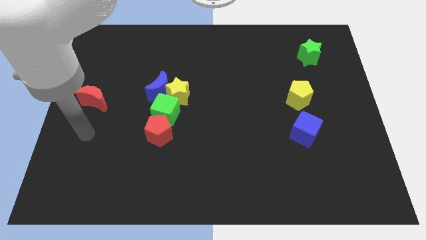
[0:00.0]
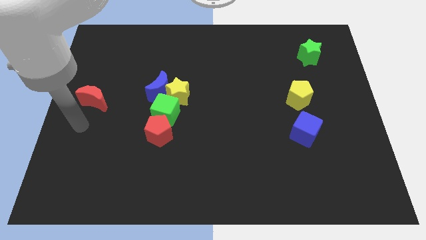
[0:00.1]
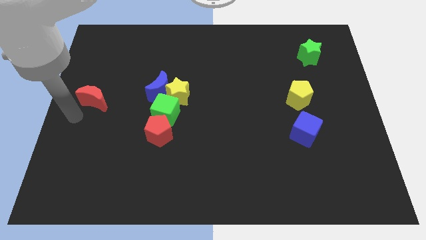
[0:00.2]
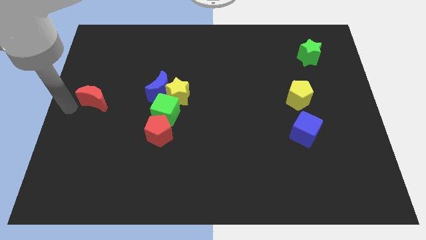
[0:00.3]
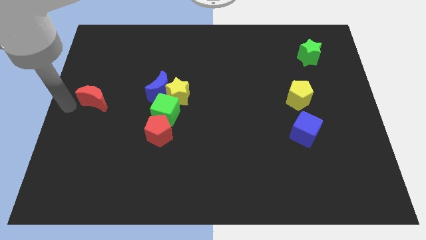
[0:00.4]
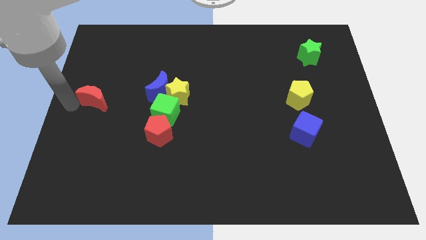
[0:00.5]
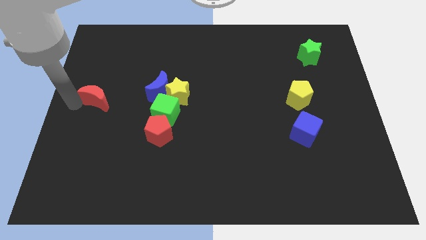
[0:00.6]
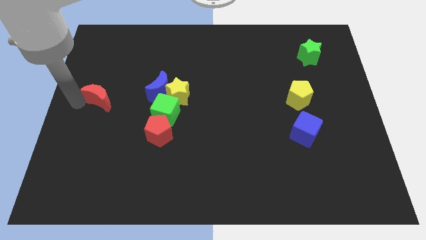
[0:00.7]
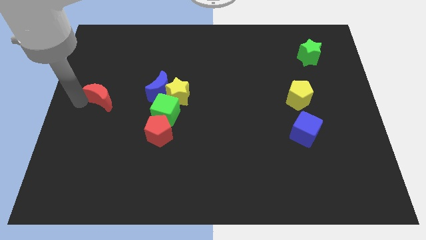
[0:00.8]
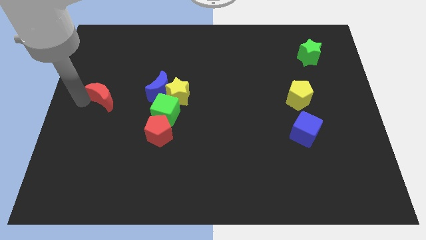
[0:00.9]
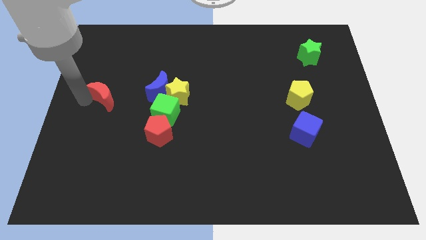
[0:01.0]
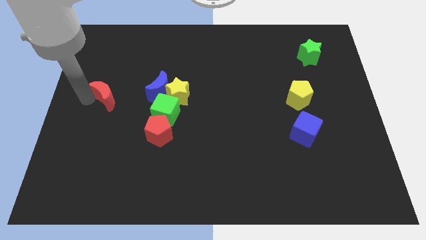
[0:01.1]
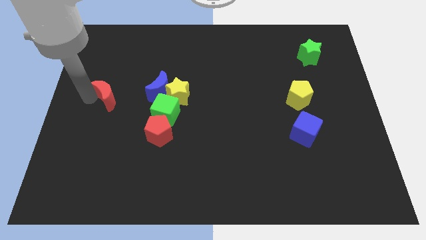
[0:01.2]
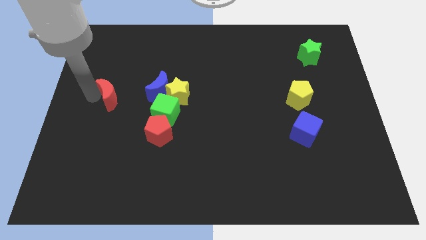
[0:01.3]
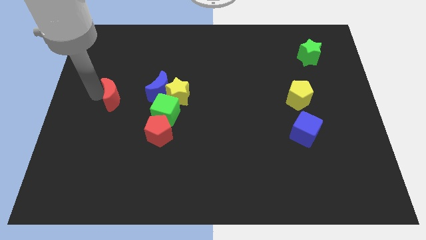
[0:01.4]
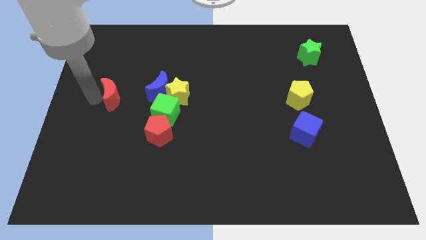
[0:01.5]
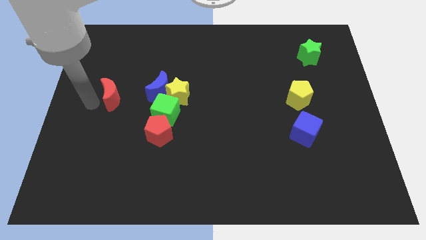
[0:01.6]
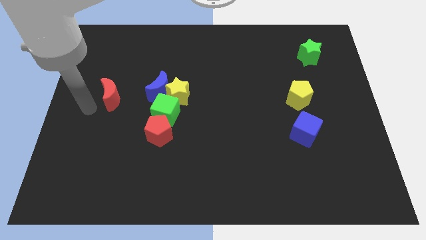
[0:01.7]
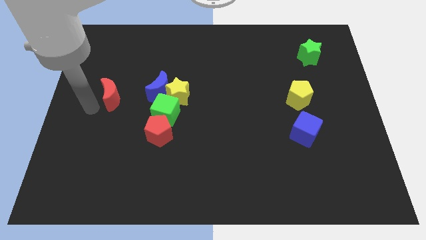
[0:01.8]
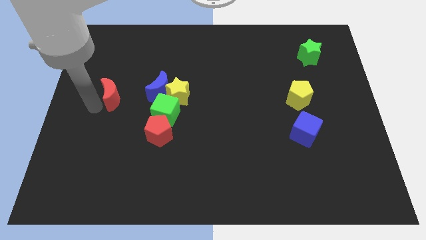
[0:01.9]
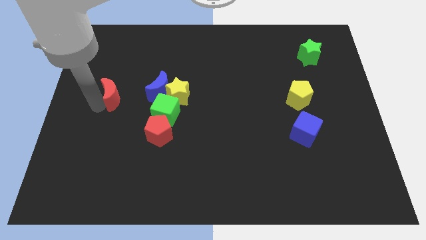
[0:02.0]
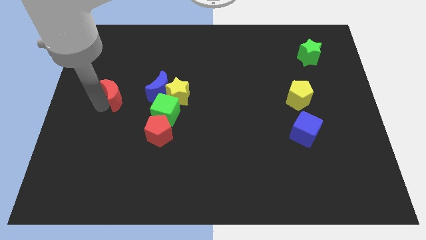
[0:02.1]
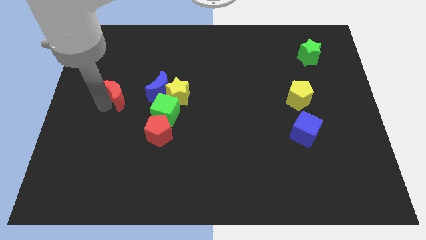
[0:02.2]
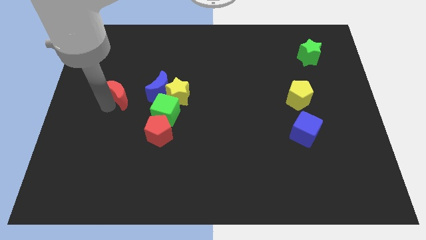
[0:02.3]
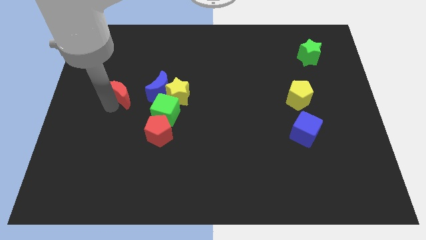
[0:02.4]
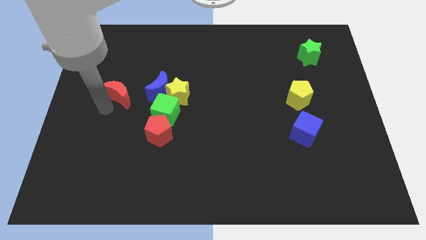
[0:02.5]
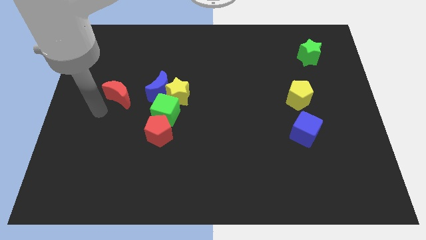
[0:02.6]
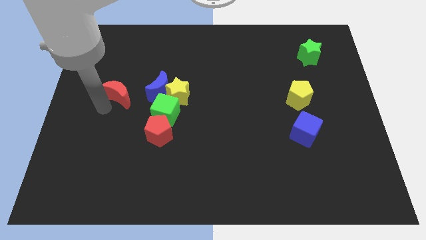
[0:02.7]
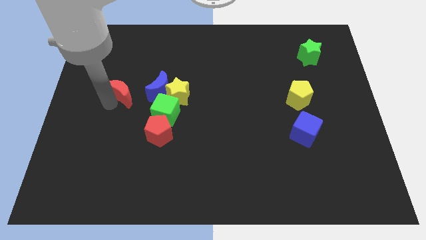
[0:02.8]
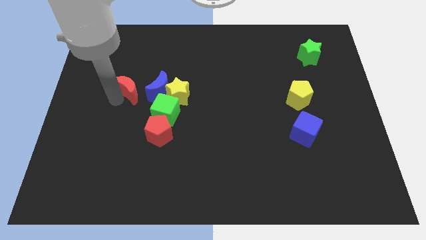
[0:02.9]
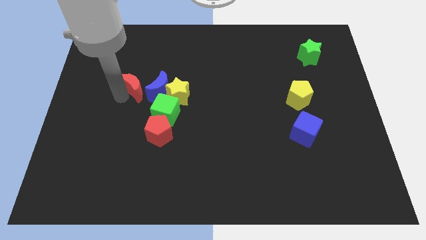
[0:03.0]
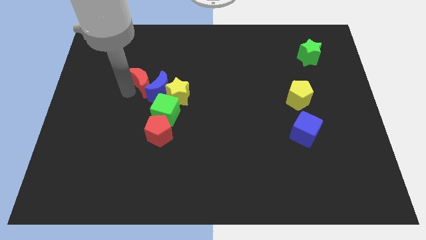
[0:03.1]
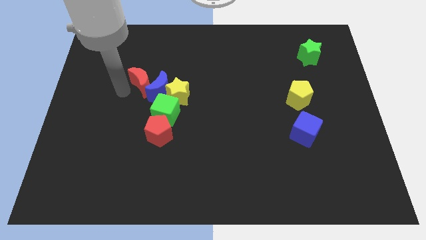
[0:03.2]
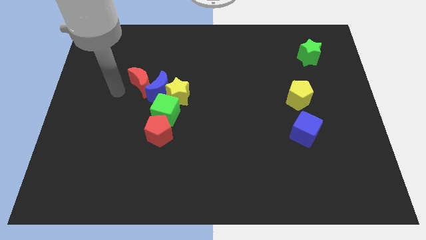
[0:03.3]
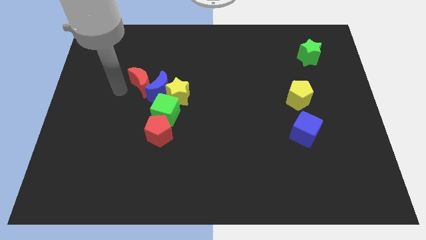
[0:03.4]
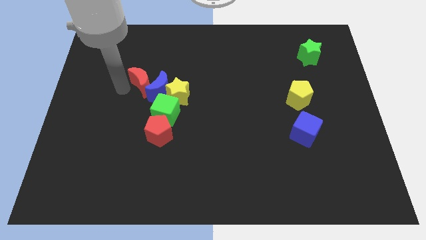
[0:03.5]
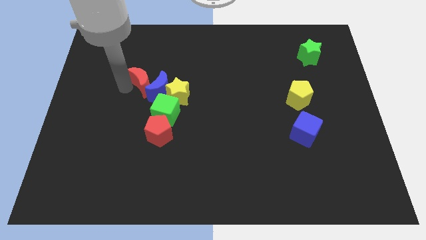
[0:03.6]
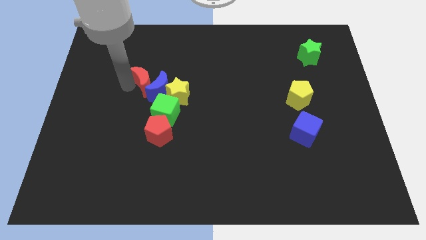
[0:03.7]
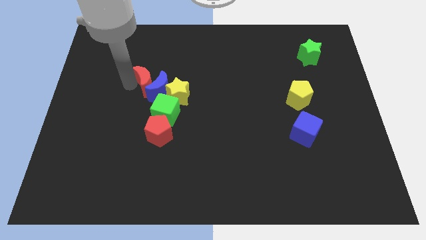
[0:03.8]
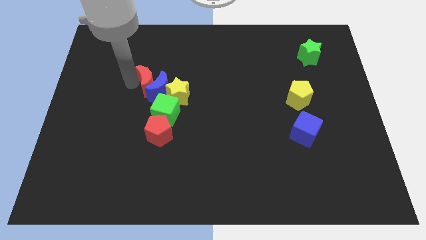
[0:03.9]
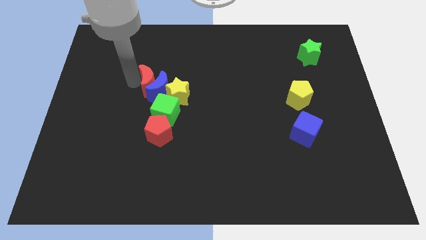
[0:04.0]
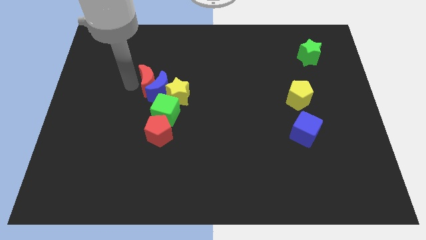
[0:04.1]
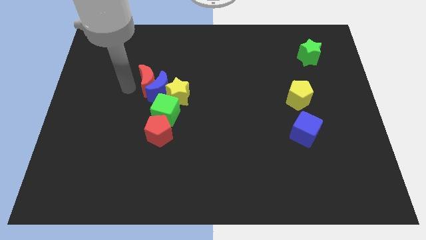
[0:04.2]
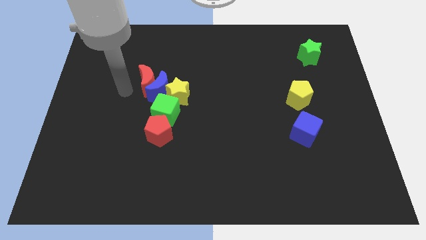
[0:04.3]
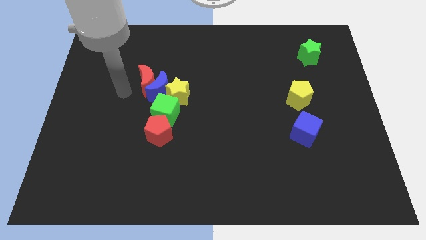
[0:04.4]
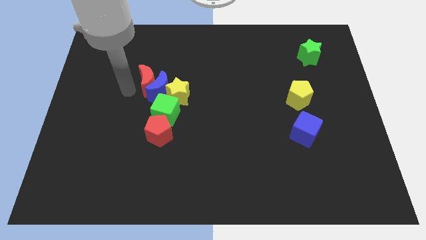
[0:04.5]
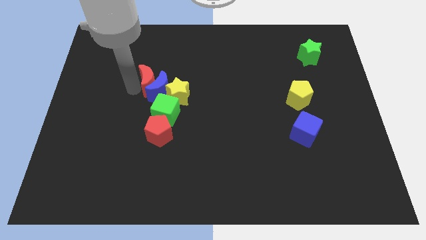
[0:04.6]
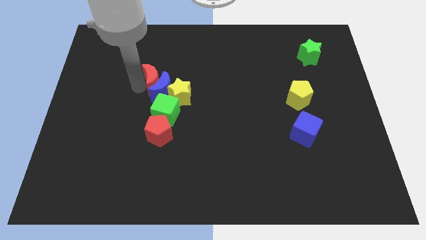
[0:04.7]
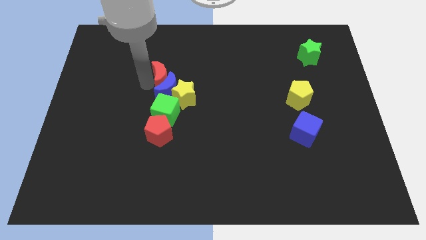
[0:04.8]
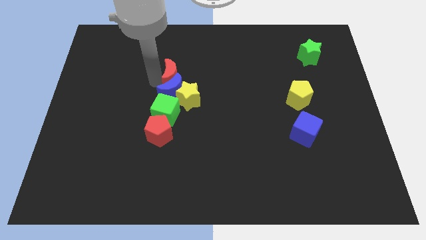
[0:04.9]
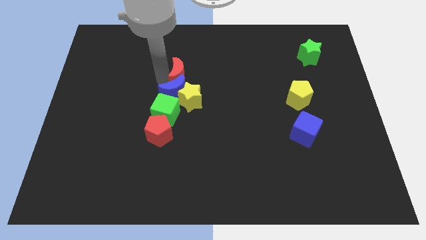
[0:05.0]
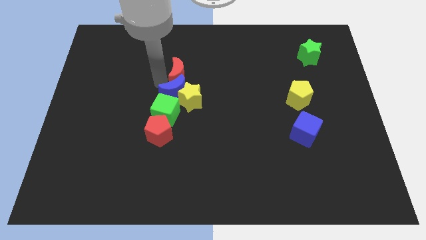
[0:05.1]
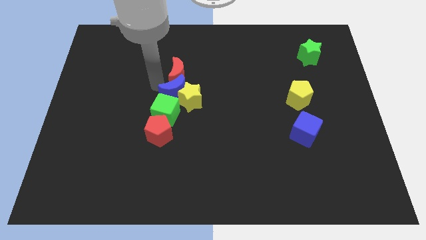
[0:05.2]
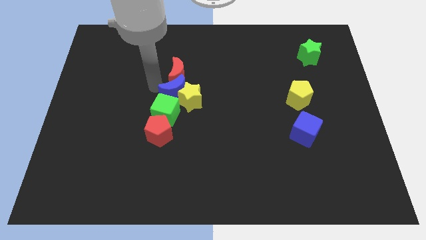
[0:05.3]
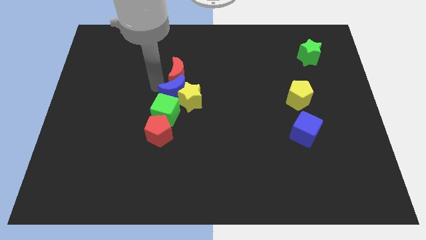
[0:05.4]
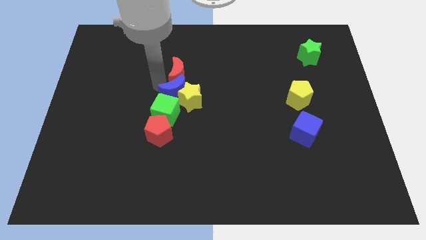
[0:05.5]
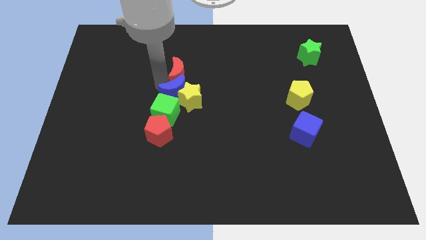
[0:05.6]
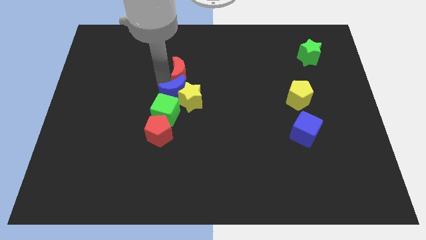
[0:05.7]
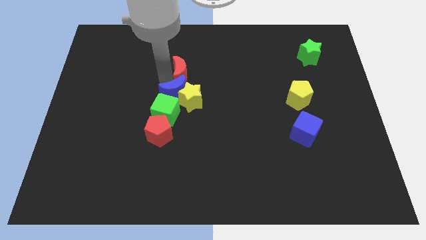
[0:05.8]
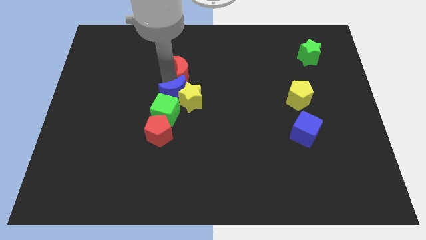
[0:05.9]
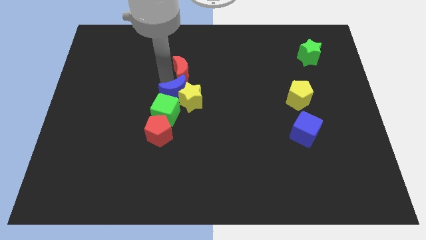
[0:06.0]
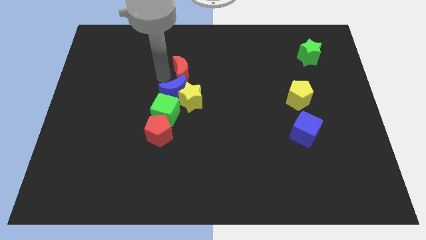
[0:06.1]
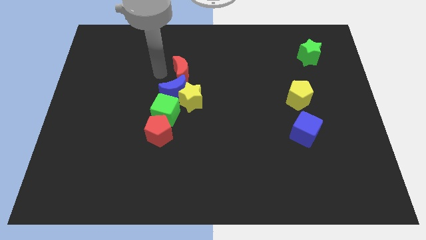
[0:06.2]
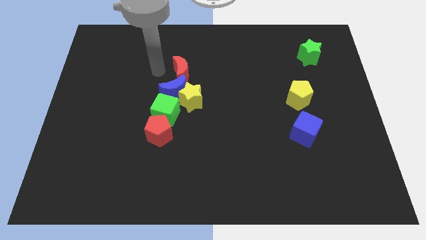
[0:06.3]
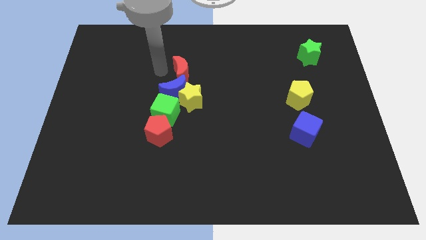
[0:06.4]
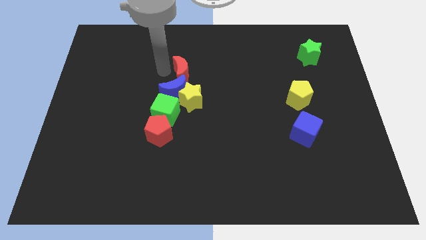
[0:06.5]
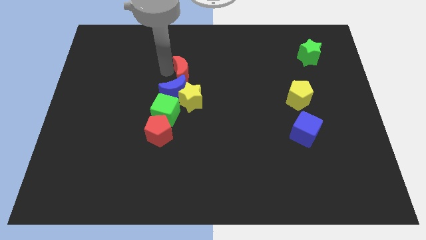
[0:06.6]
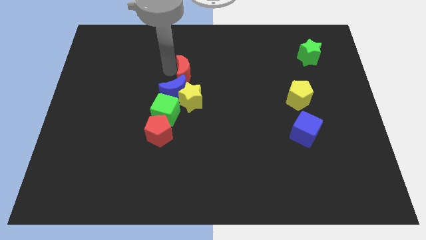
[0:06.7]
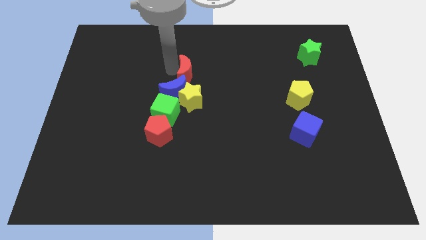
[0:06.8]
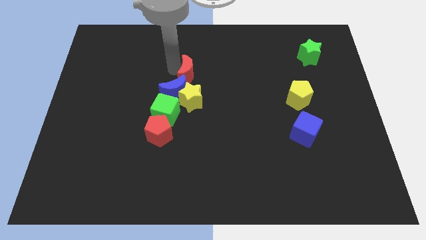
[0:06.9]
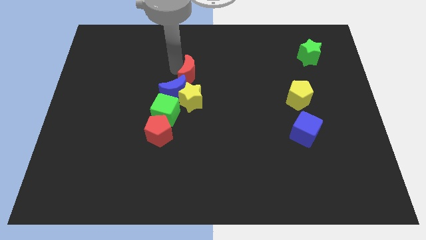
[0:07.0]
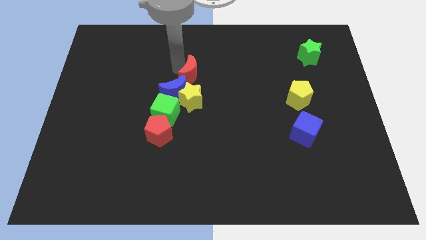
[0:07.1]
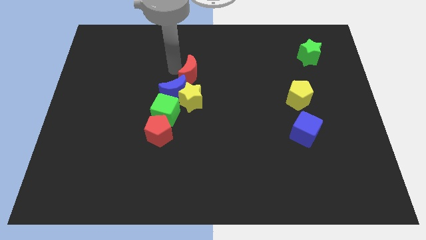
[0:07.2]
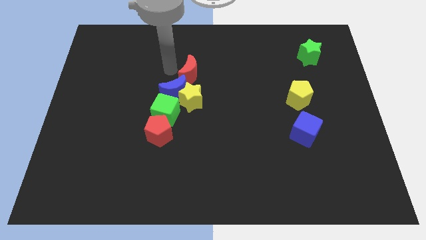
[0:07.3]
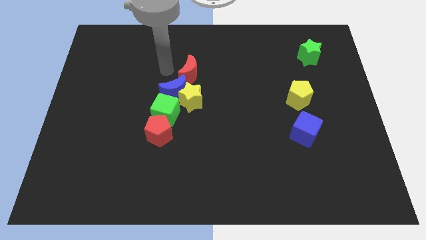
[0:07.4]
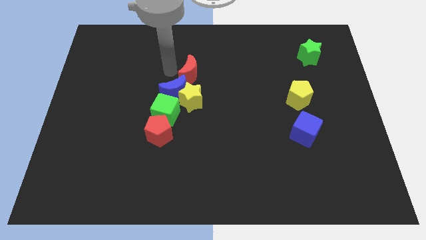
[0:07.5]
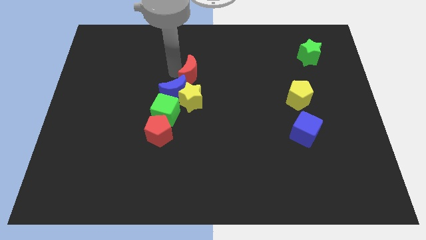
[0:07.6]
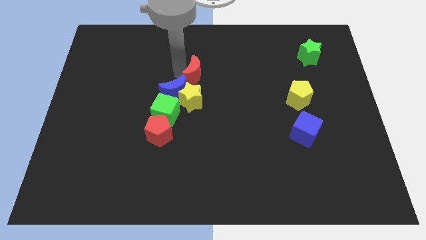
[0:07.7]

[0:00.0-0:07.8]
move the red moon to the right

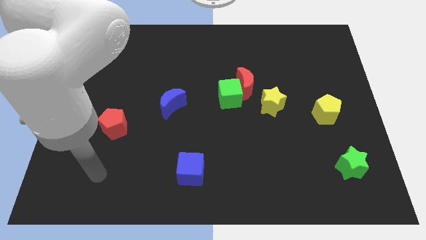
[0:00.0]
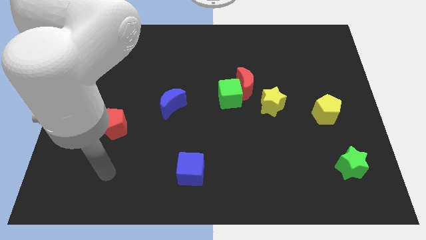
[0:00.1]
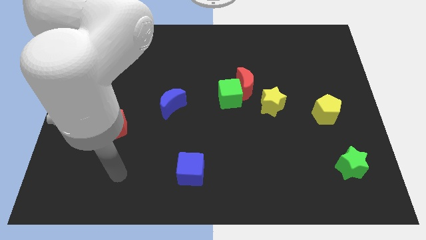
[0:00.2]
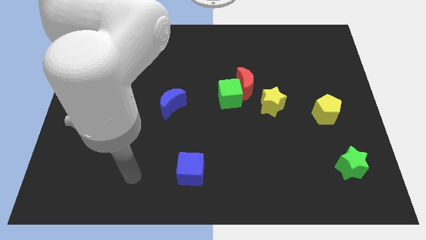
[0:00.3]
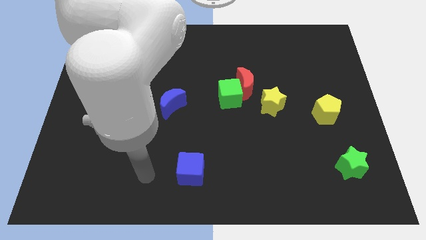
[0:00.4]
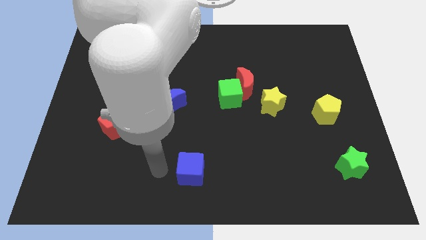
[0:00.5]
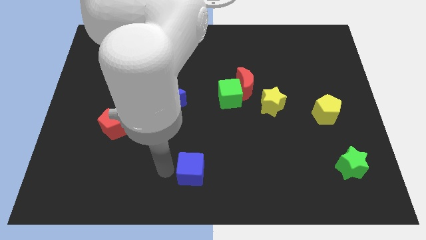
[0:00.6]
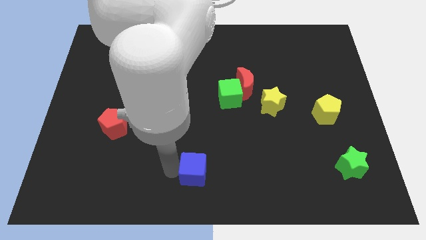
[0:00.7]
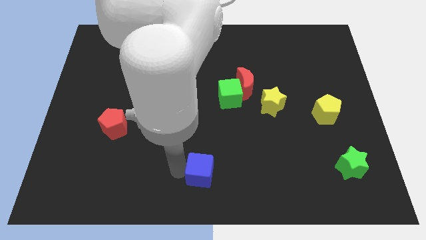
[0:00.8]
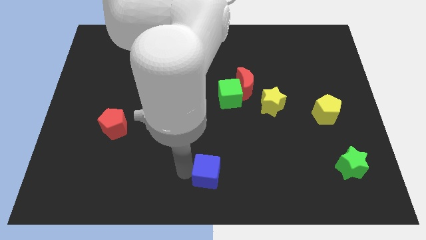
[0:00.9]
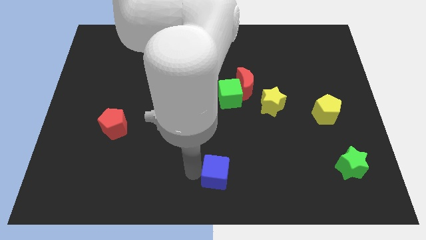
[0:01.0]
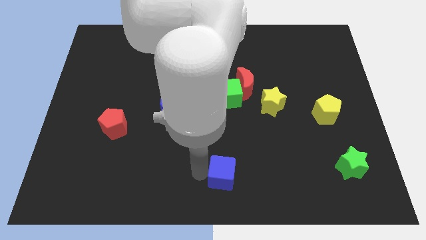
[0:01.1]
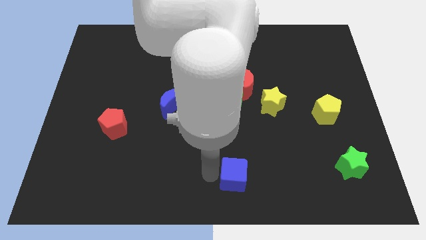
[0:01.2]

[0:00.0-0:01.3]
move the blue cube right a little bit
